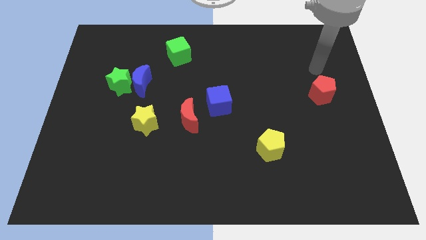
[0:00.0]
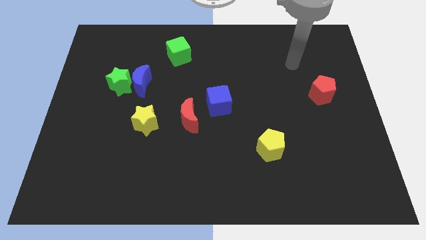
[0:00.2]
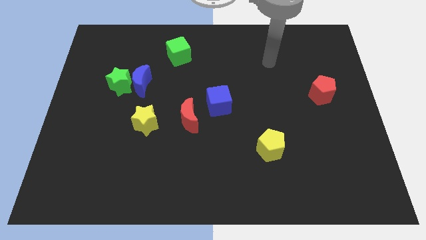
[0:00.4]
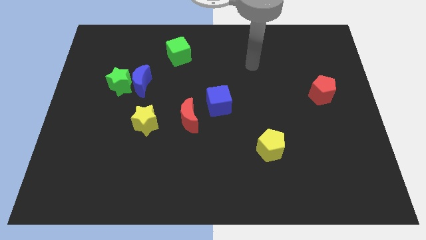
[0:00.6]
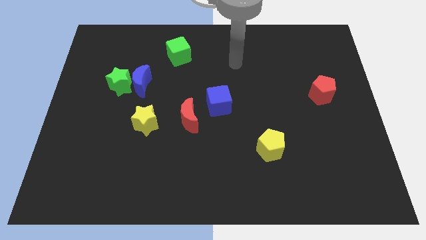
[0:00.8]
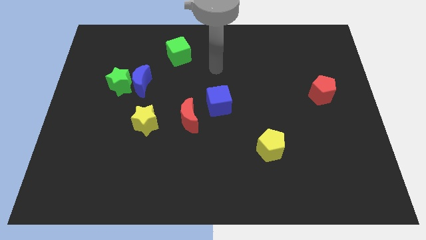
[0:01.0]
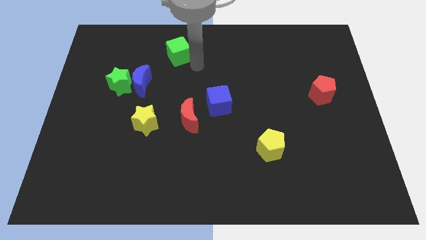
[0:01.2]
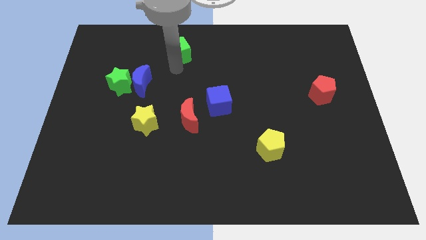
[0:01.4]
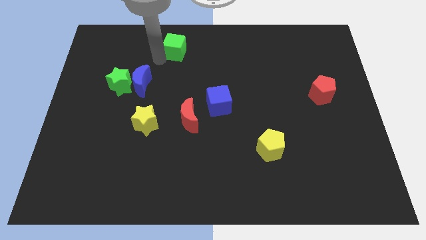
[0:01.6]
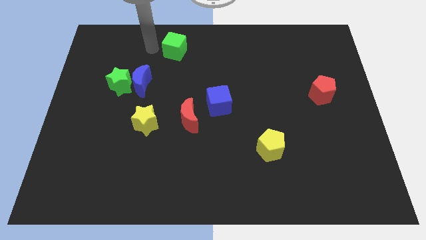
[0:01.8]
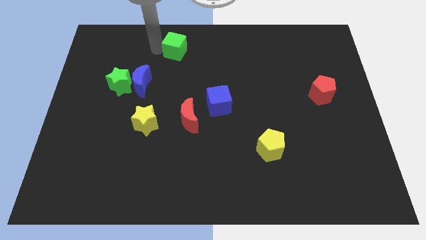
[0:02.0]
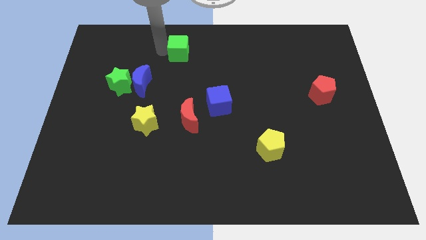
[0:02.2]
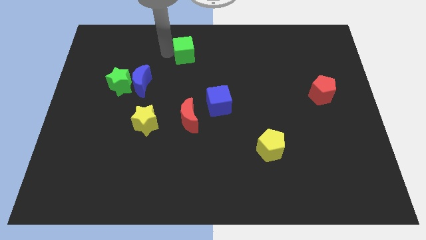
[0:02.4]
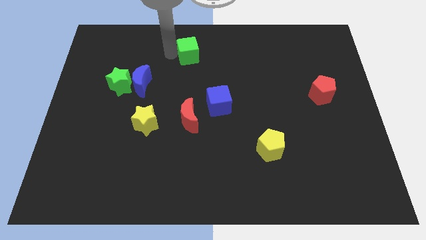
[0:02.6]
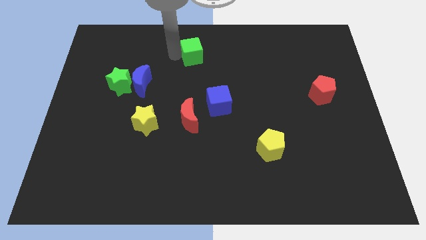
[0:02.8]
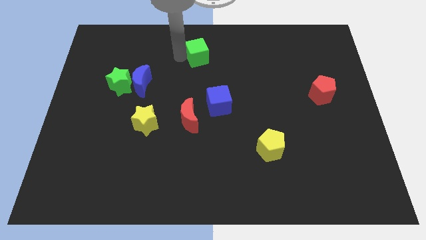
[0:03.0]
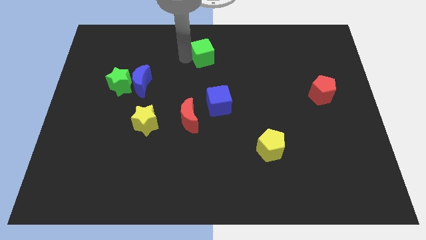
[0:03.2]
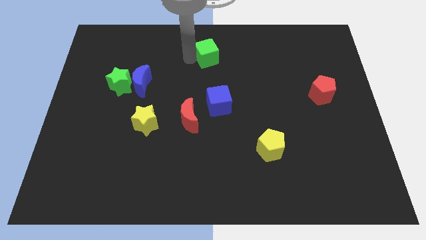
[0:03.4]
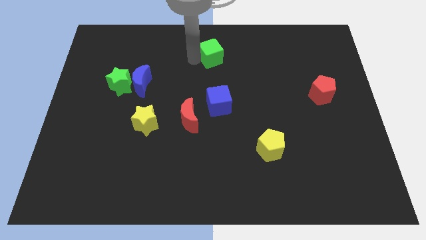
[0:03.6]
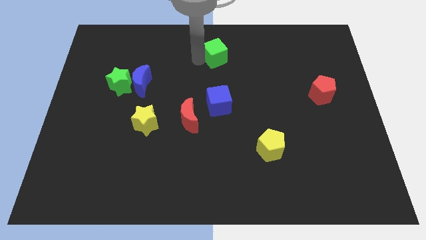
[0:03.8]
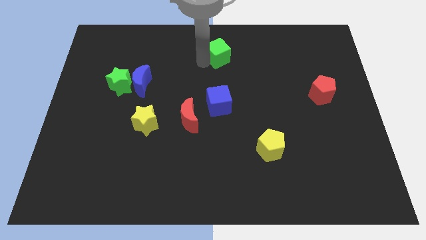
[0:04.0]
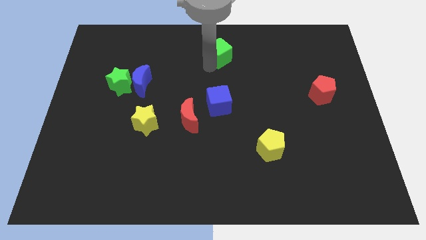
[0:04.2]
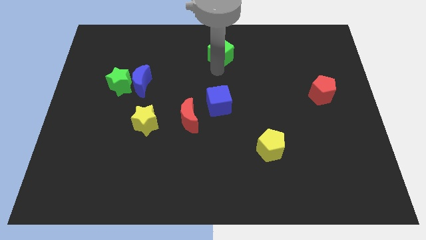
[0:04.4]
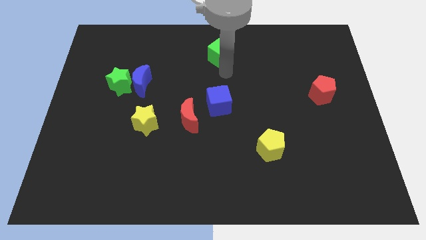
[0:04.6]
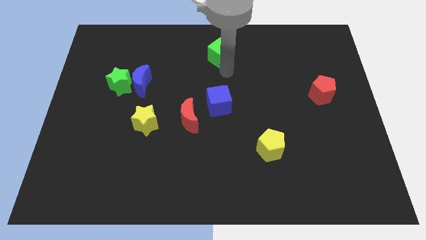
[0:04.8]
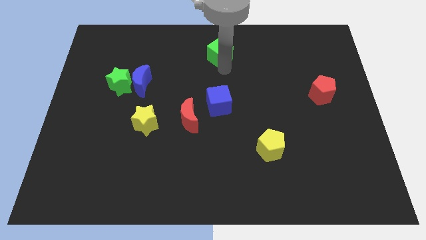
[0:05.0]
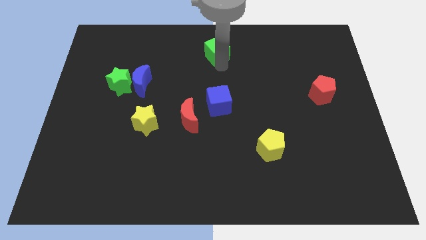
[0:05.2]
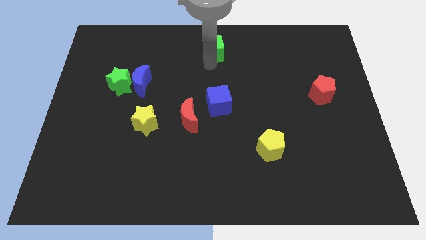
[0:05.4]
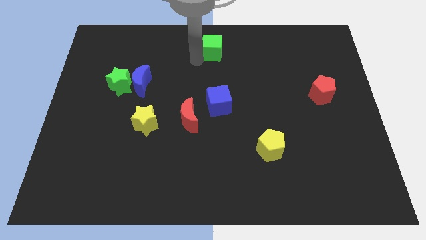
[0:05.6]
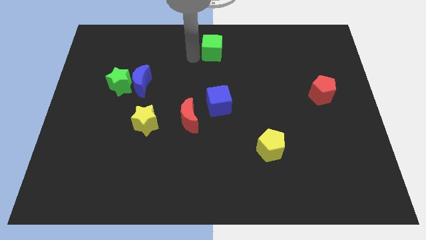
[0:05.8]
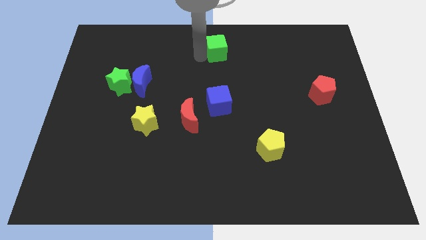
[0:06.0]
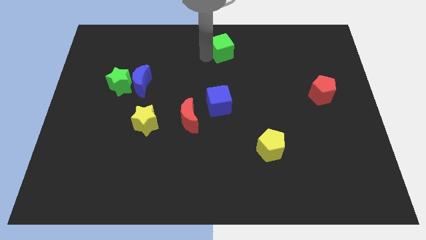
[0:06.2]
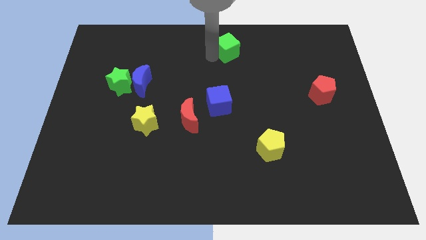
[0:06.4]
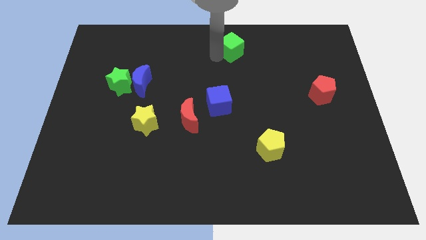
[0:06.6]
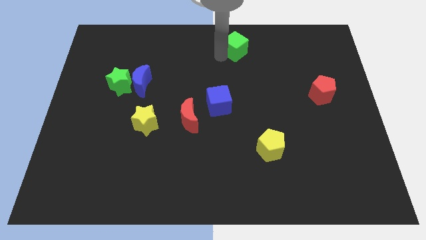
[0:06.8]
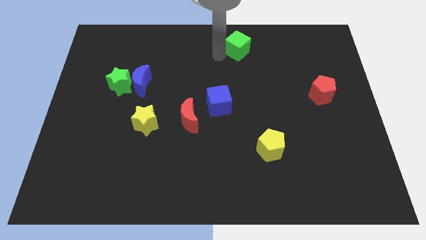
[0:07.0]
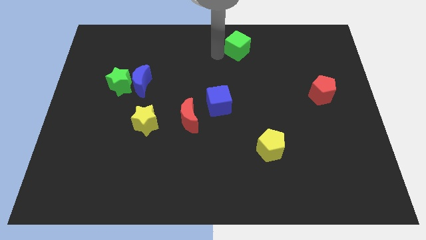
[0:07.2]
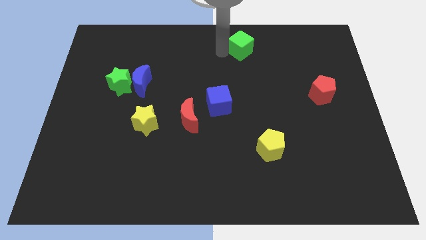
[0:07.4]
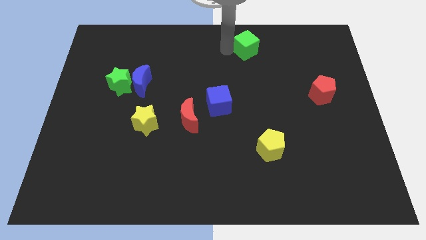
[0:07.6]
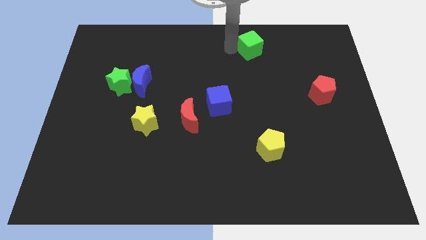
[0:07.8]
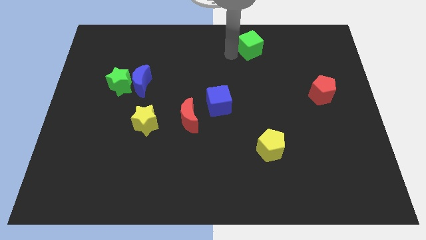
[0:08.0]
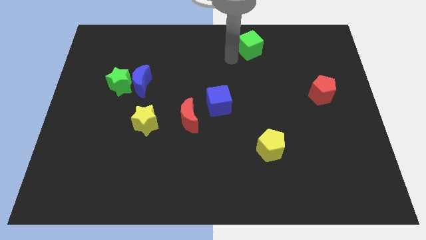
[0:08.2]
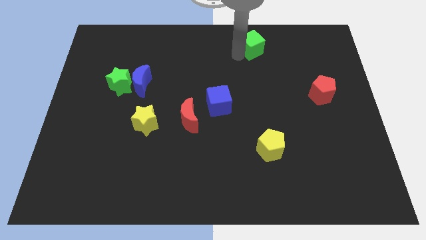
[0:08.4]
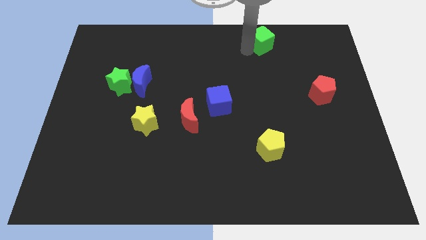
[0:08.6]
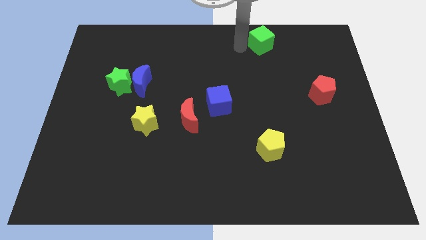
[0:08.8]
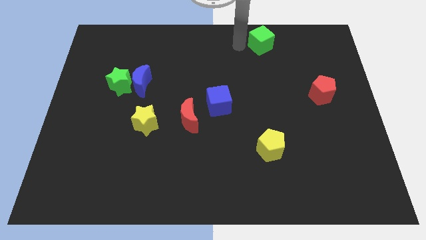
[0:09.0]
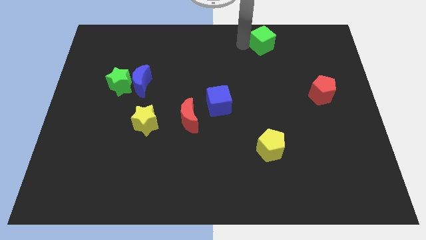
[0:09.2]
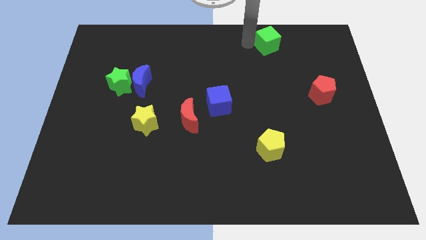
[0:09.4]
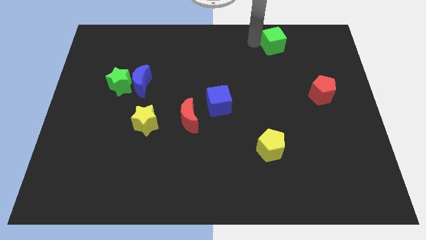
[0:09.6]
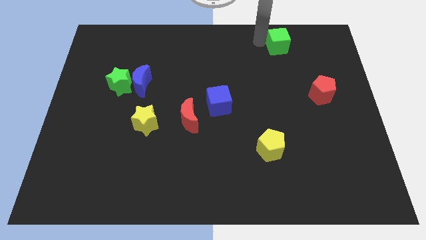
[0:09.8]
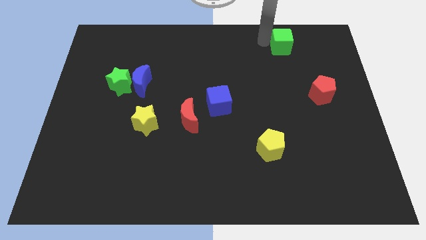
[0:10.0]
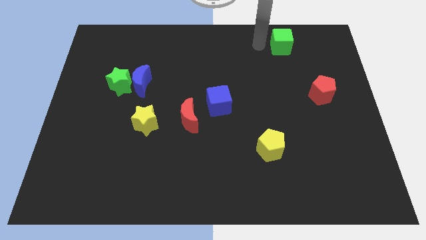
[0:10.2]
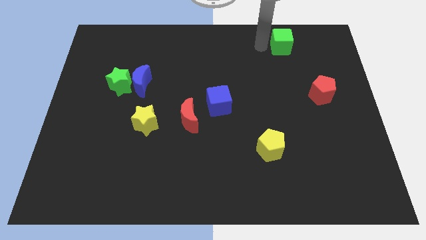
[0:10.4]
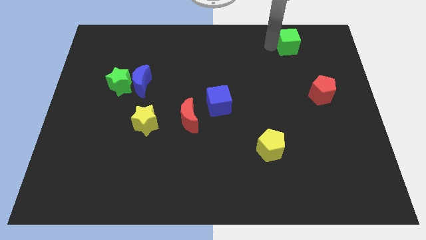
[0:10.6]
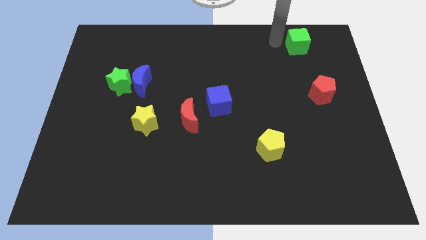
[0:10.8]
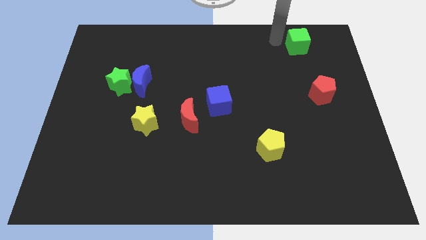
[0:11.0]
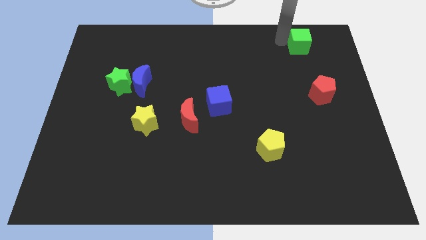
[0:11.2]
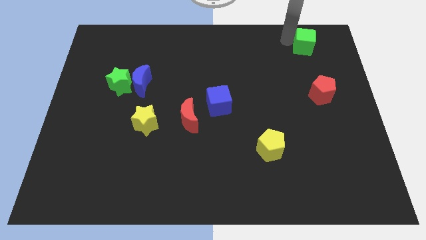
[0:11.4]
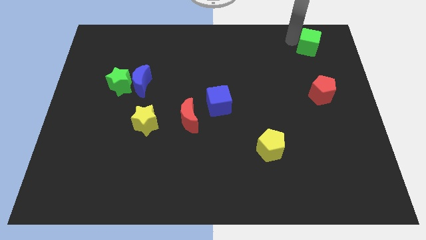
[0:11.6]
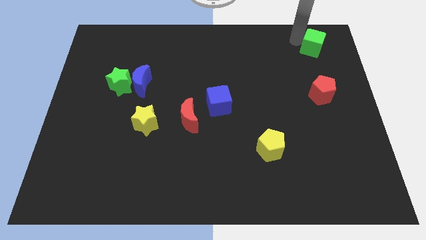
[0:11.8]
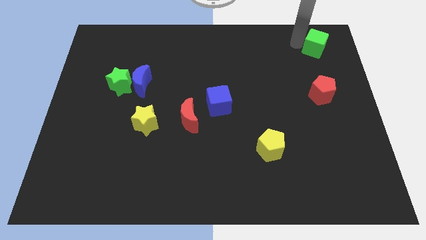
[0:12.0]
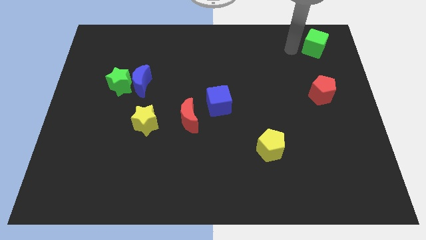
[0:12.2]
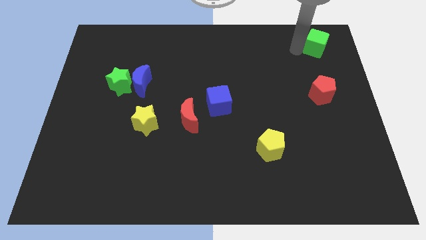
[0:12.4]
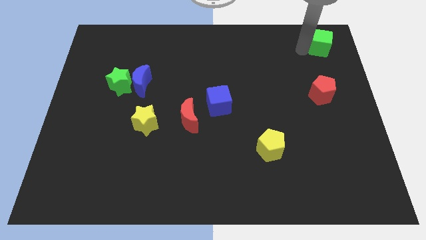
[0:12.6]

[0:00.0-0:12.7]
slide the green cube to the top right corner
